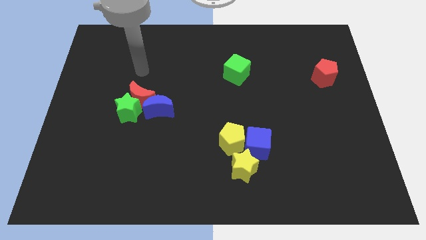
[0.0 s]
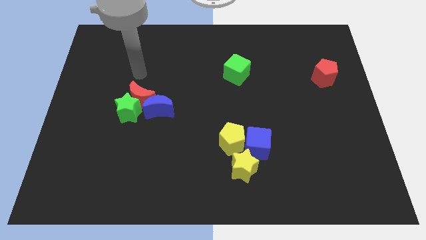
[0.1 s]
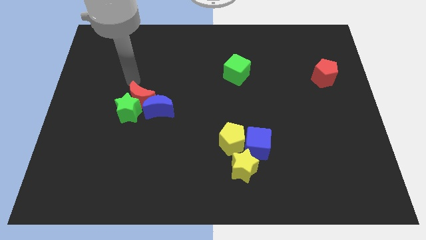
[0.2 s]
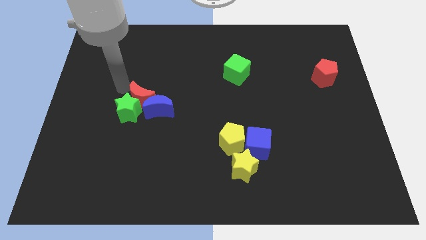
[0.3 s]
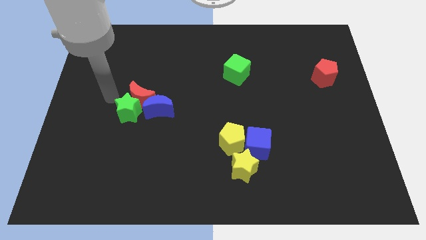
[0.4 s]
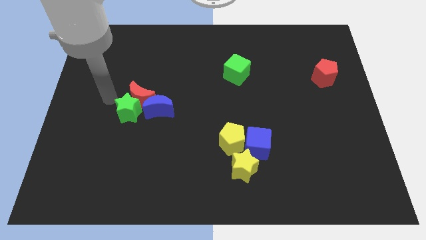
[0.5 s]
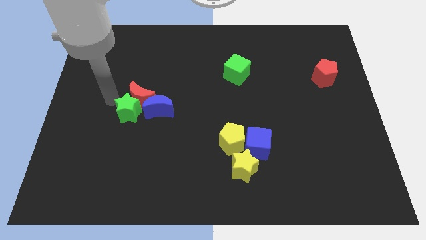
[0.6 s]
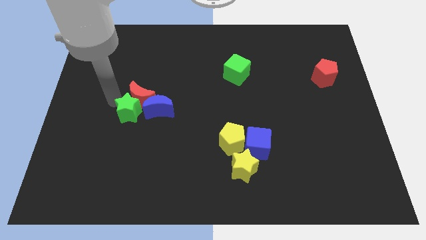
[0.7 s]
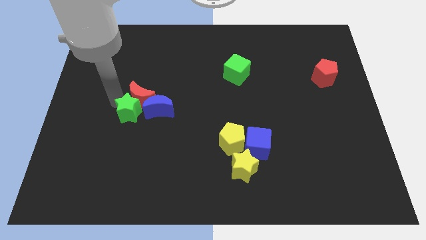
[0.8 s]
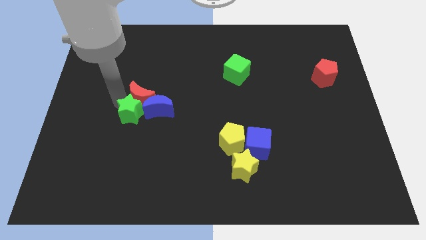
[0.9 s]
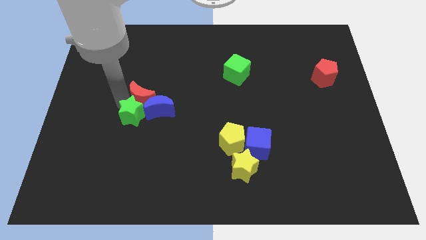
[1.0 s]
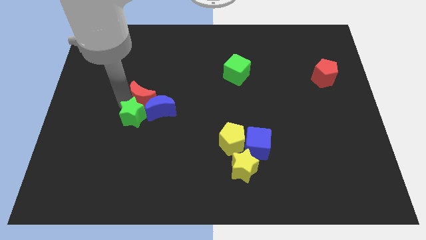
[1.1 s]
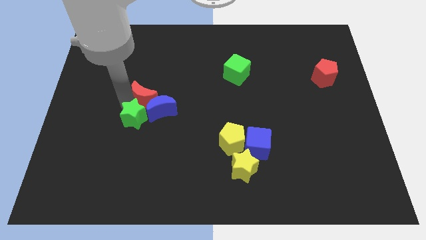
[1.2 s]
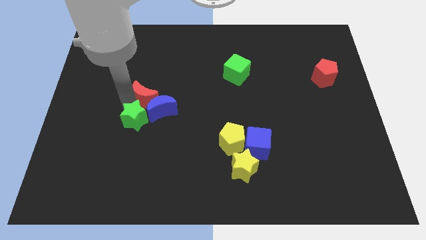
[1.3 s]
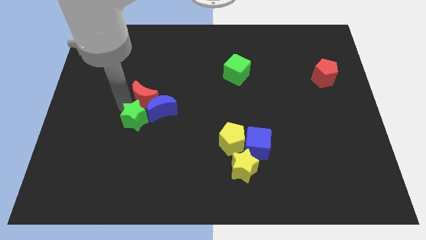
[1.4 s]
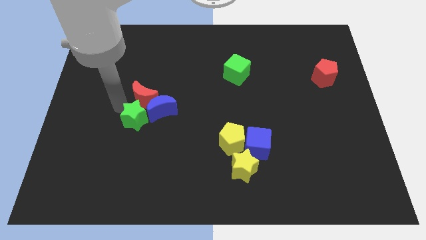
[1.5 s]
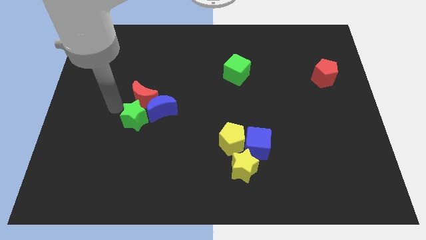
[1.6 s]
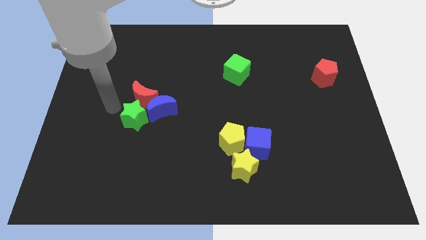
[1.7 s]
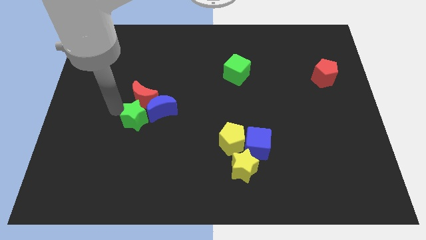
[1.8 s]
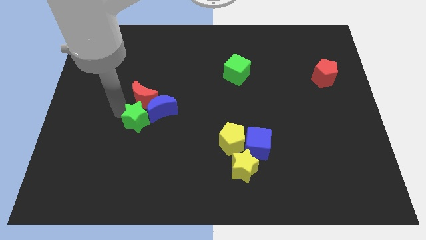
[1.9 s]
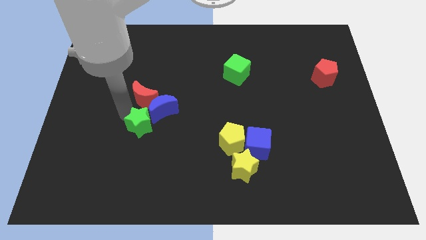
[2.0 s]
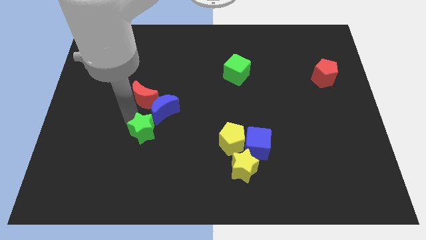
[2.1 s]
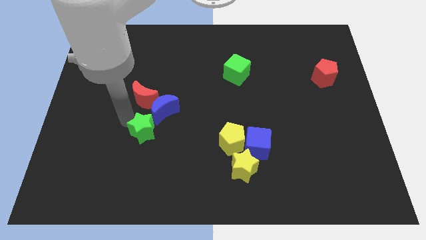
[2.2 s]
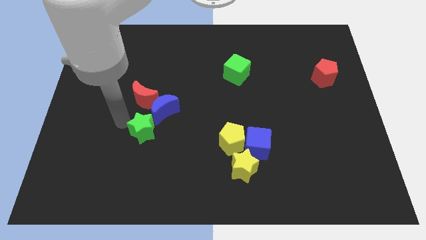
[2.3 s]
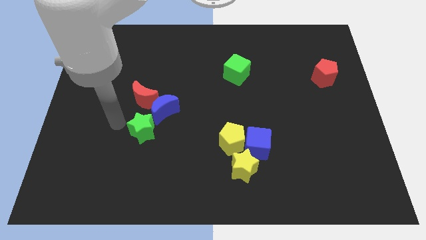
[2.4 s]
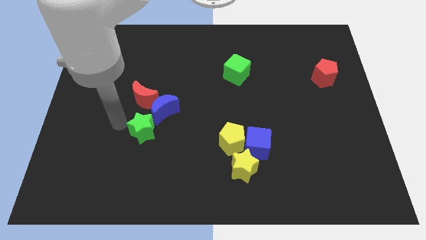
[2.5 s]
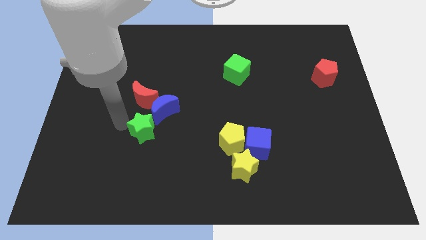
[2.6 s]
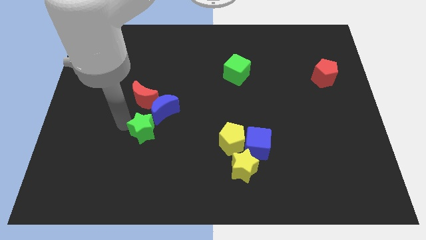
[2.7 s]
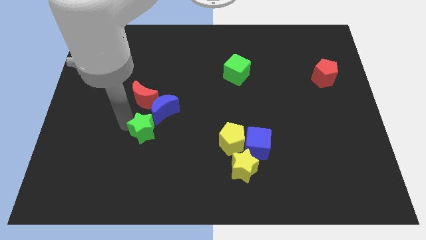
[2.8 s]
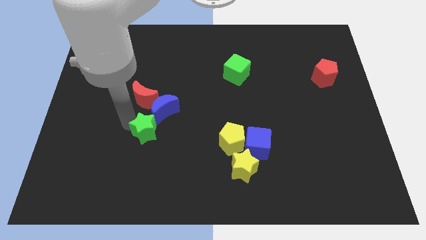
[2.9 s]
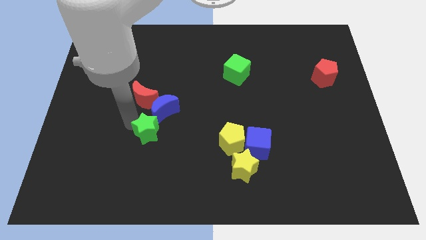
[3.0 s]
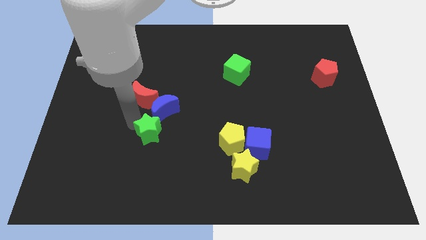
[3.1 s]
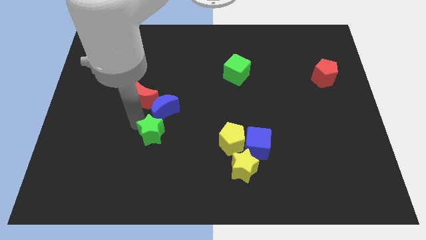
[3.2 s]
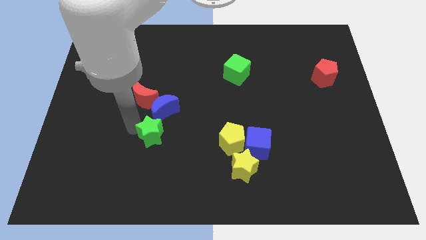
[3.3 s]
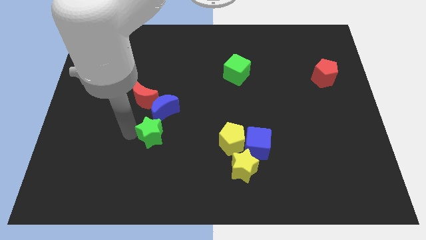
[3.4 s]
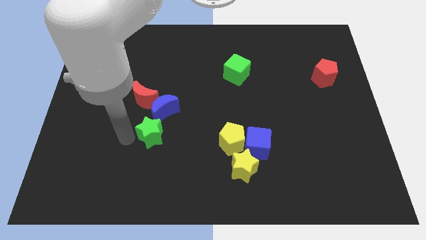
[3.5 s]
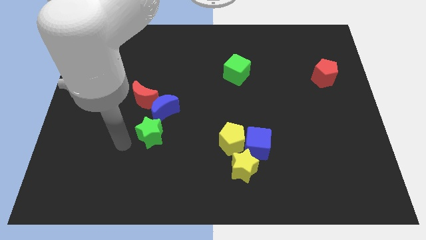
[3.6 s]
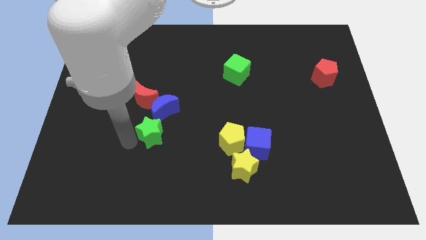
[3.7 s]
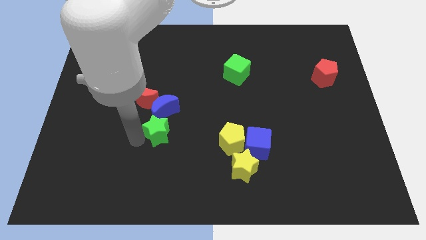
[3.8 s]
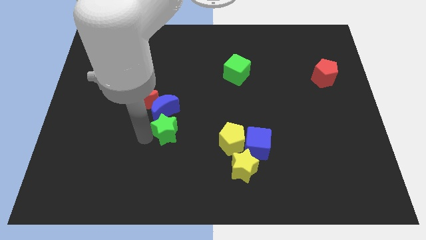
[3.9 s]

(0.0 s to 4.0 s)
push the green star to the right slightly

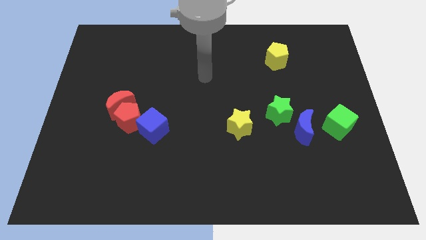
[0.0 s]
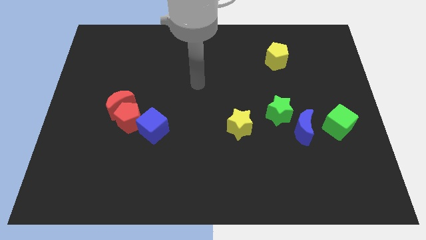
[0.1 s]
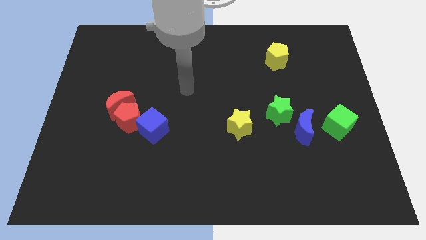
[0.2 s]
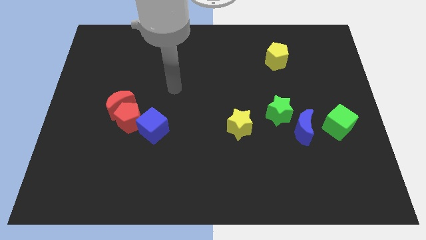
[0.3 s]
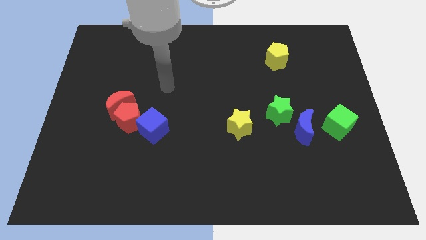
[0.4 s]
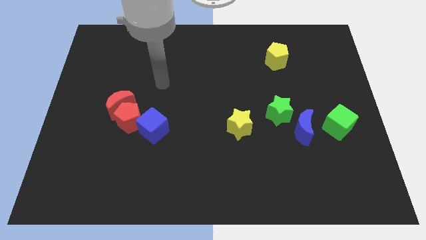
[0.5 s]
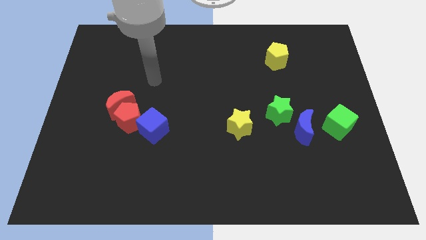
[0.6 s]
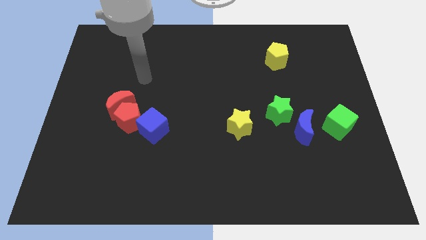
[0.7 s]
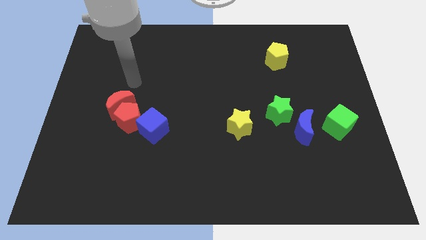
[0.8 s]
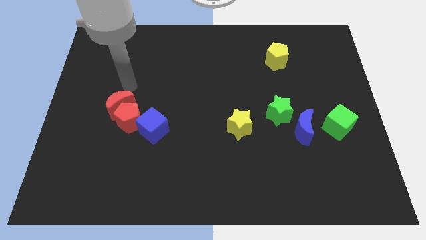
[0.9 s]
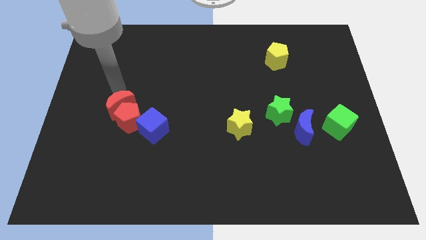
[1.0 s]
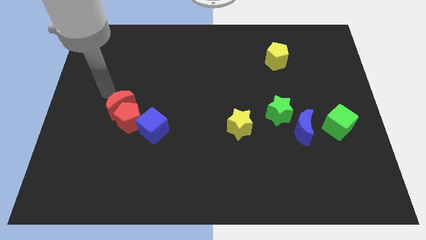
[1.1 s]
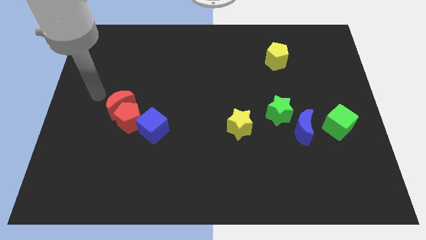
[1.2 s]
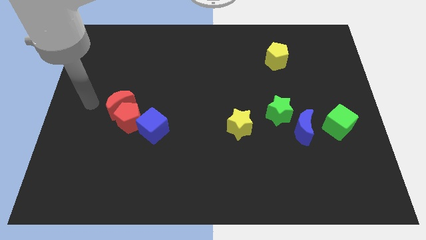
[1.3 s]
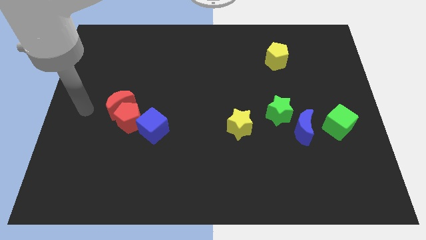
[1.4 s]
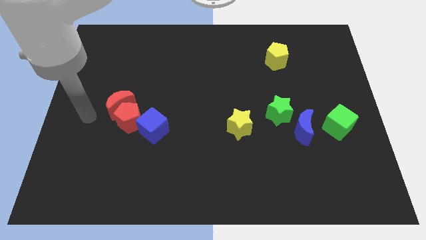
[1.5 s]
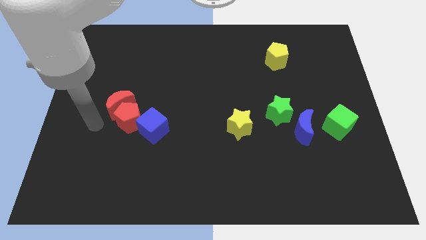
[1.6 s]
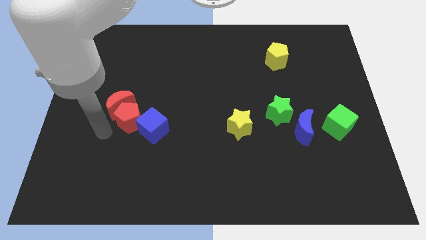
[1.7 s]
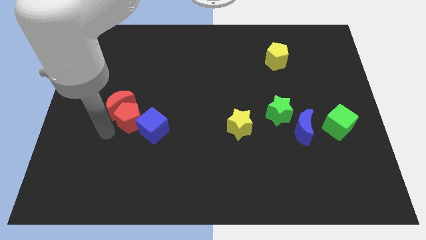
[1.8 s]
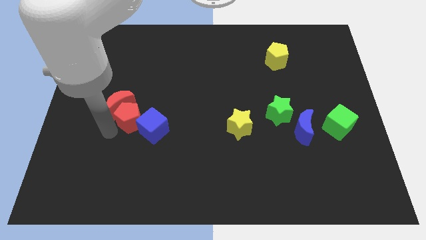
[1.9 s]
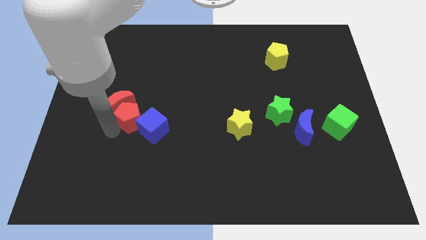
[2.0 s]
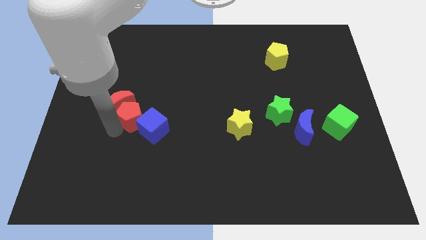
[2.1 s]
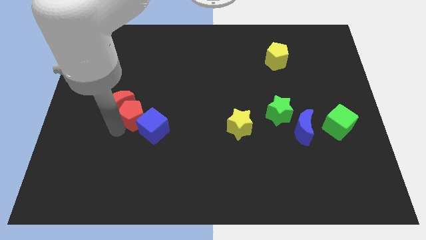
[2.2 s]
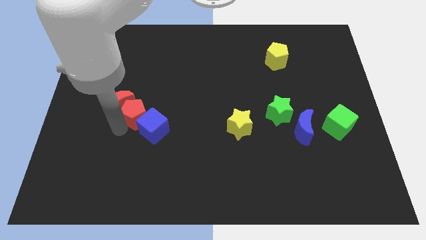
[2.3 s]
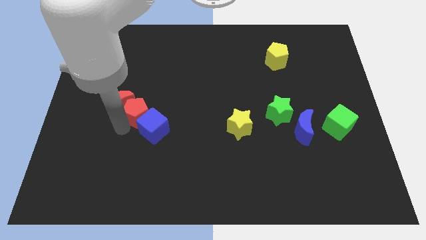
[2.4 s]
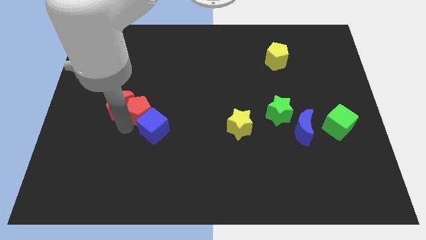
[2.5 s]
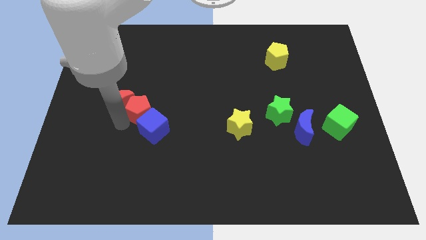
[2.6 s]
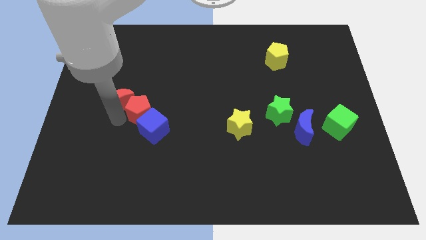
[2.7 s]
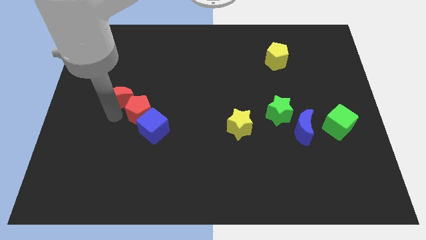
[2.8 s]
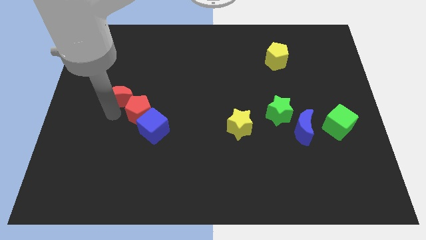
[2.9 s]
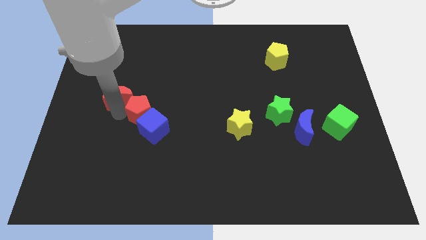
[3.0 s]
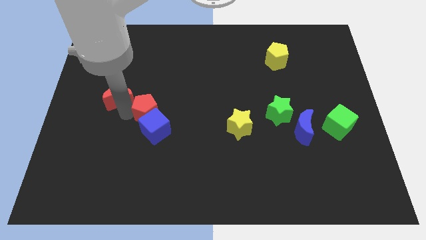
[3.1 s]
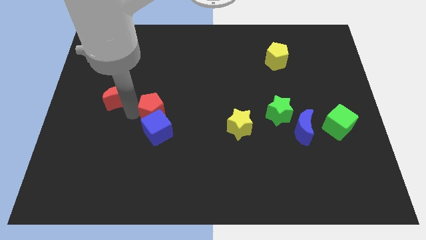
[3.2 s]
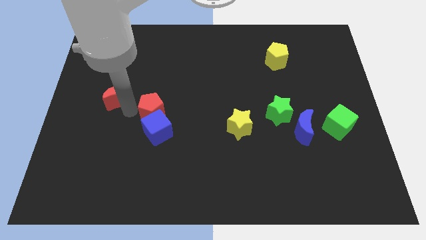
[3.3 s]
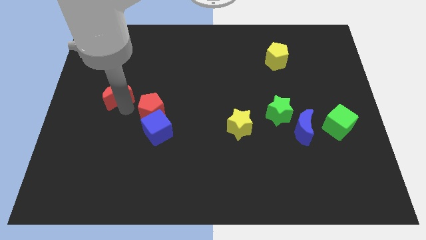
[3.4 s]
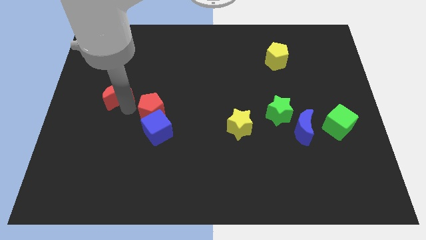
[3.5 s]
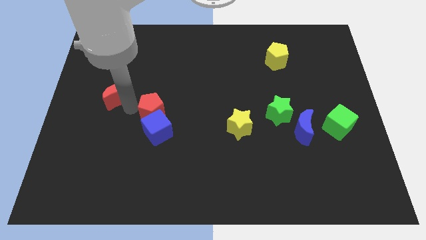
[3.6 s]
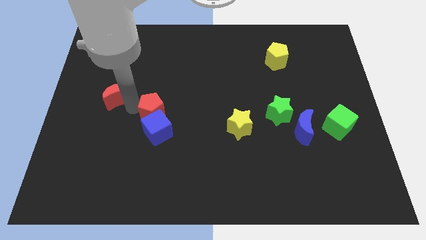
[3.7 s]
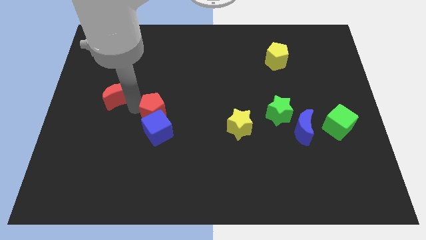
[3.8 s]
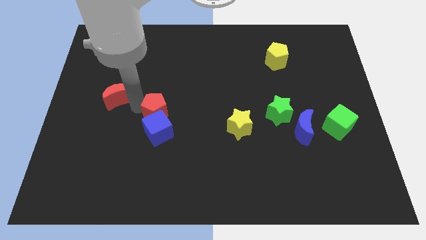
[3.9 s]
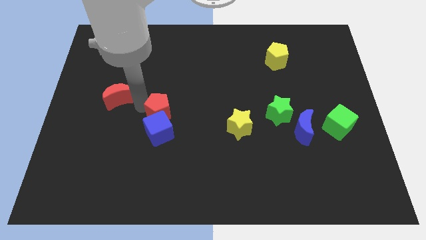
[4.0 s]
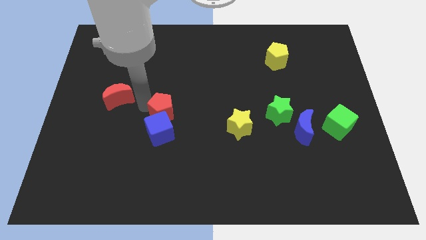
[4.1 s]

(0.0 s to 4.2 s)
push the red pentagon to the right a bit
